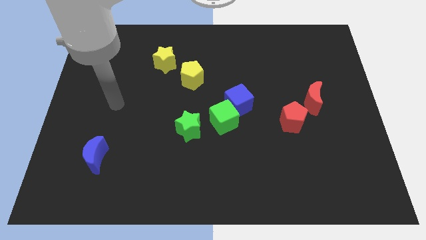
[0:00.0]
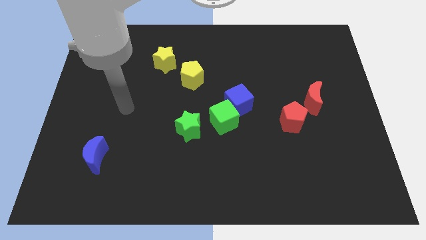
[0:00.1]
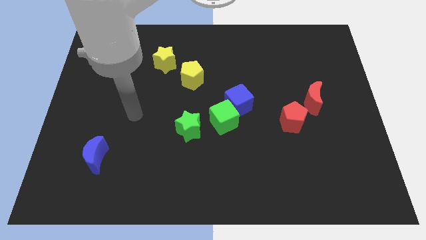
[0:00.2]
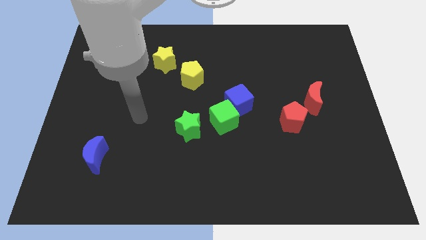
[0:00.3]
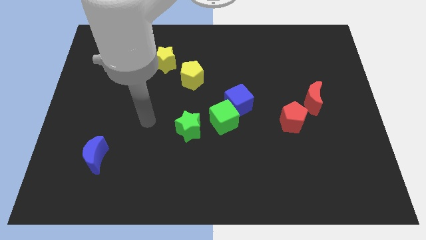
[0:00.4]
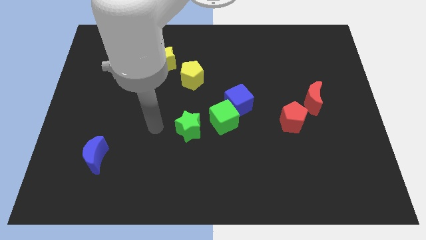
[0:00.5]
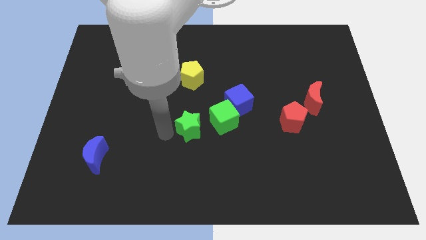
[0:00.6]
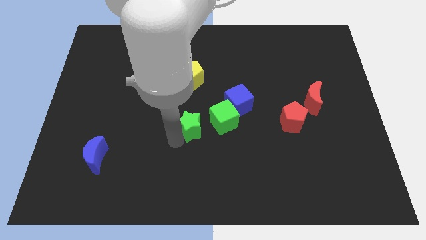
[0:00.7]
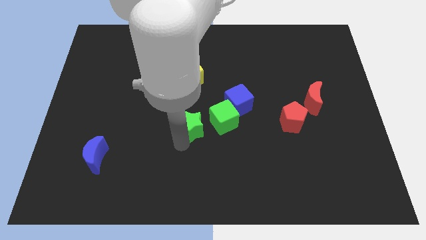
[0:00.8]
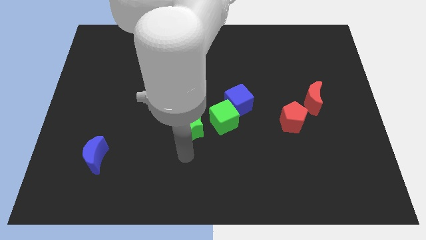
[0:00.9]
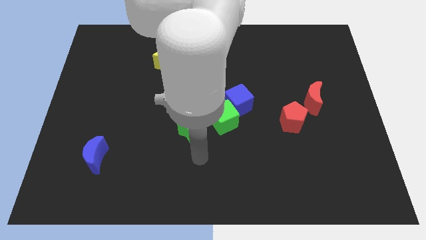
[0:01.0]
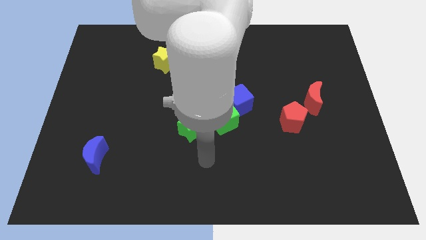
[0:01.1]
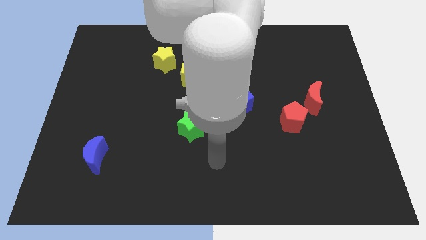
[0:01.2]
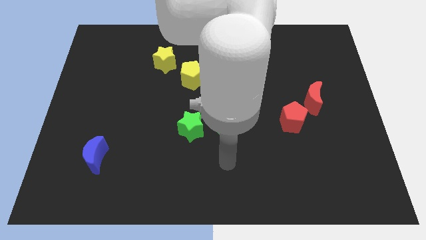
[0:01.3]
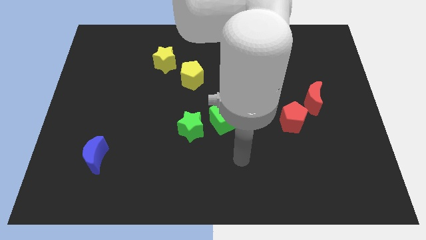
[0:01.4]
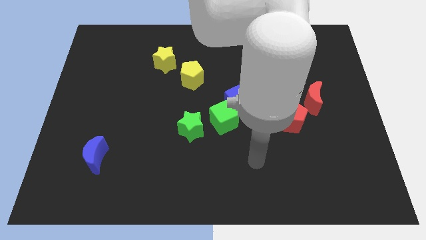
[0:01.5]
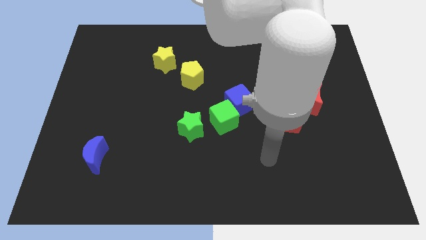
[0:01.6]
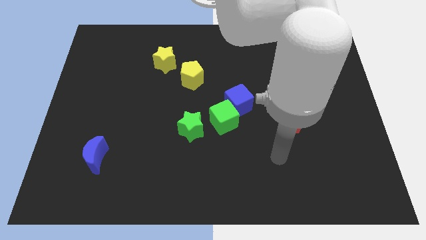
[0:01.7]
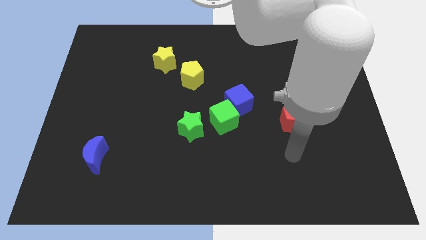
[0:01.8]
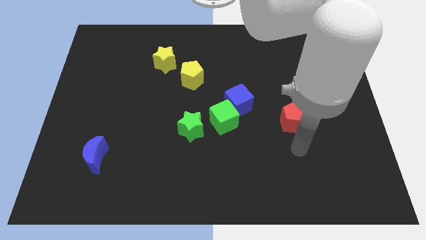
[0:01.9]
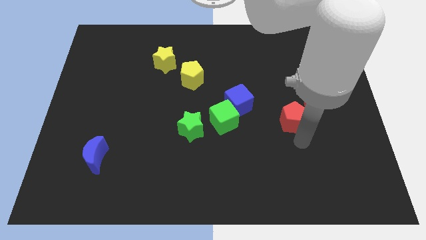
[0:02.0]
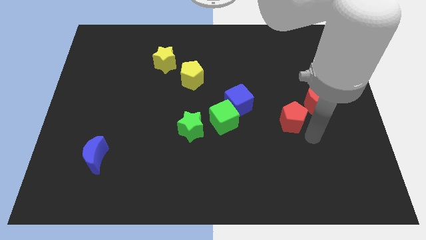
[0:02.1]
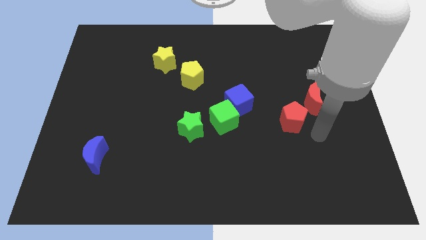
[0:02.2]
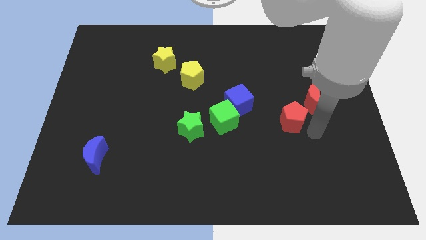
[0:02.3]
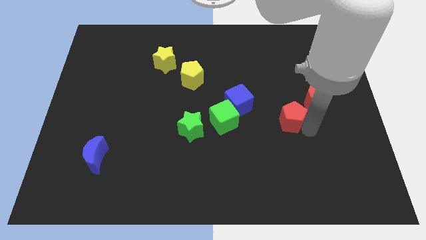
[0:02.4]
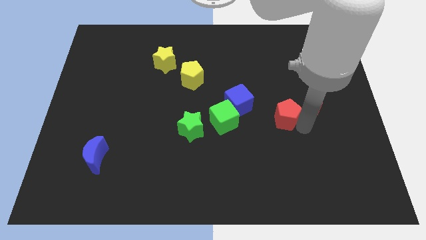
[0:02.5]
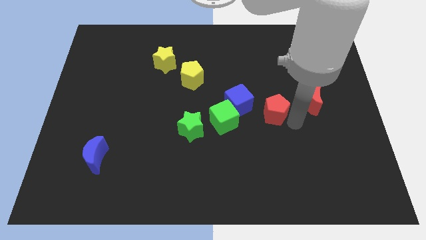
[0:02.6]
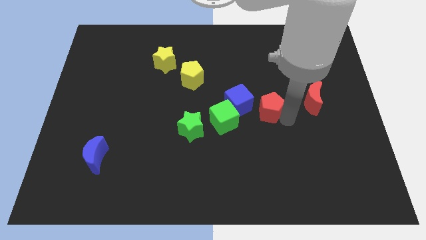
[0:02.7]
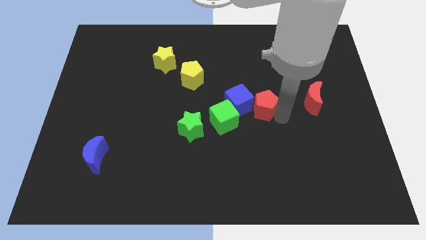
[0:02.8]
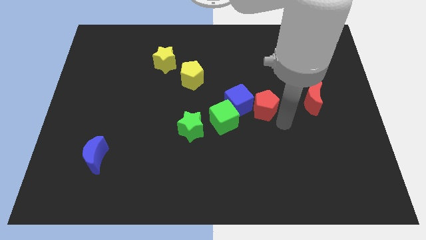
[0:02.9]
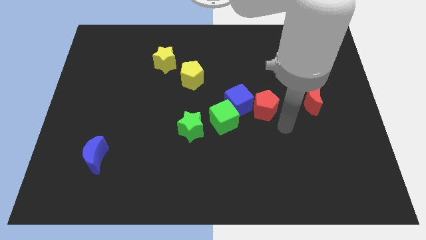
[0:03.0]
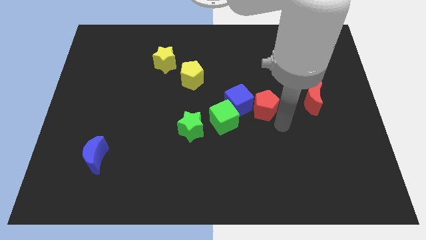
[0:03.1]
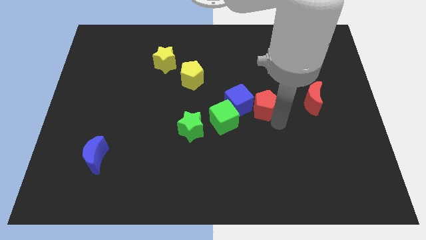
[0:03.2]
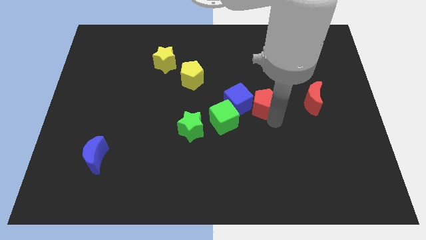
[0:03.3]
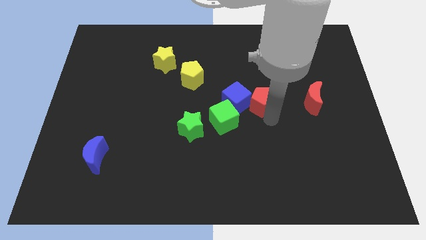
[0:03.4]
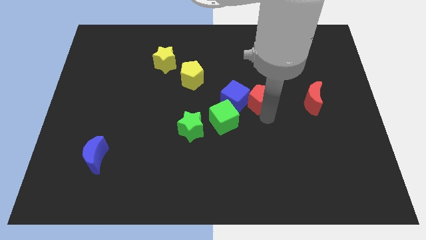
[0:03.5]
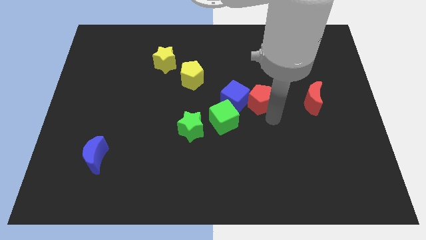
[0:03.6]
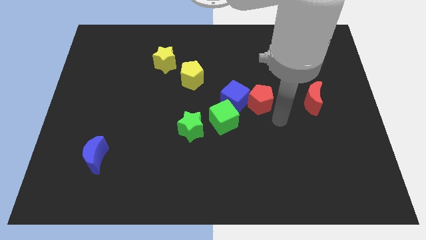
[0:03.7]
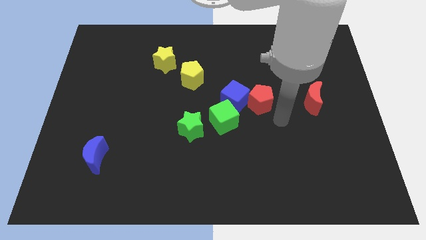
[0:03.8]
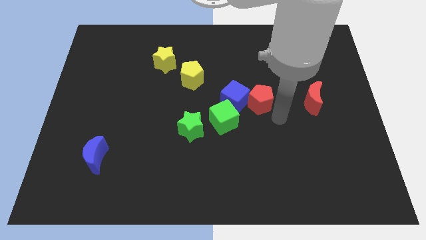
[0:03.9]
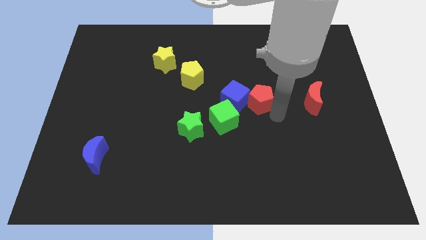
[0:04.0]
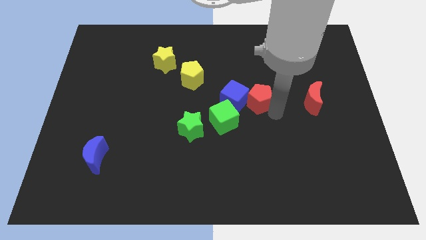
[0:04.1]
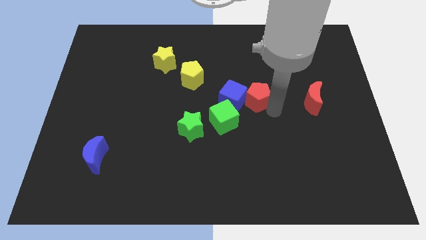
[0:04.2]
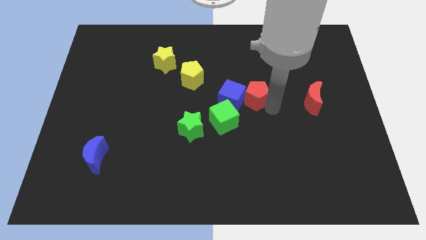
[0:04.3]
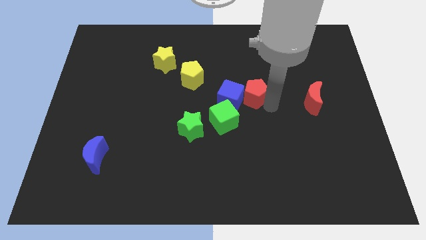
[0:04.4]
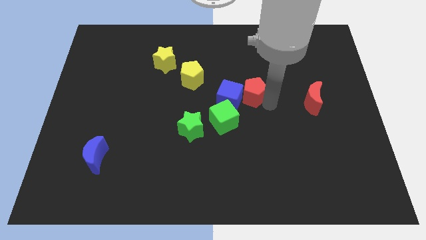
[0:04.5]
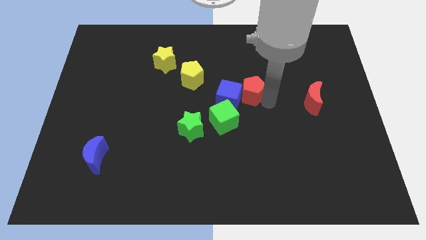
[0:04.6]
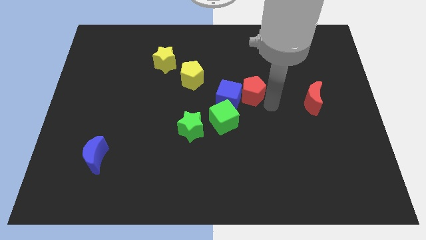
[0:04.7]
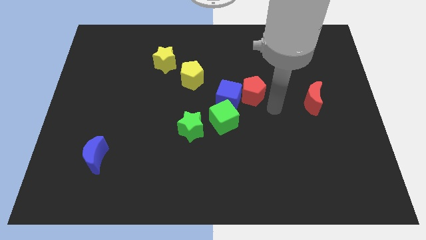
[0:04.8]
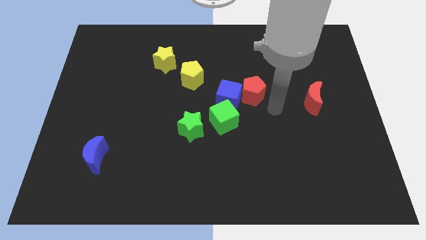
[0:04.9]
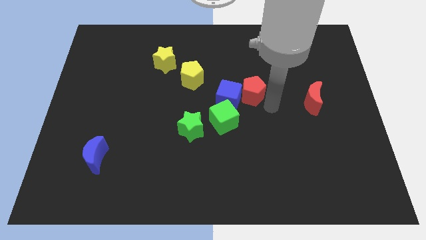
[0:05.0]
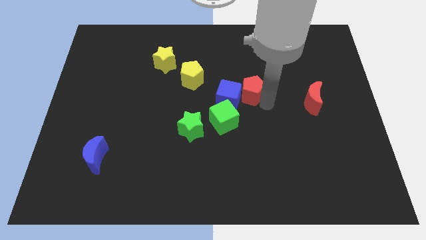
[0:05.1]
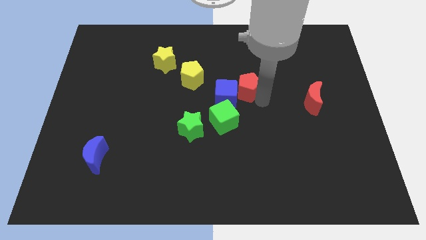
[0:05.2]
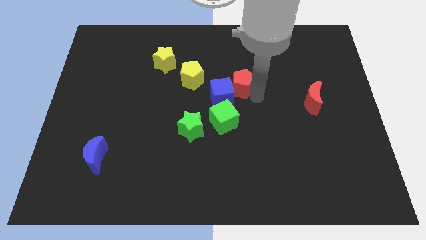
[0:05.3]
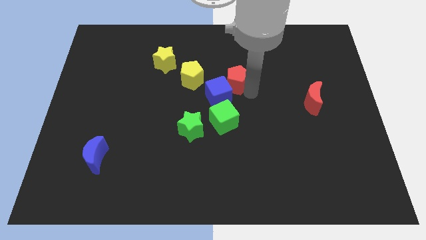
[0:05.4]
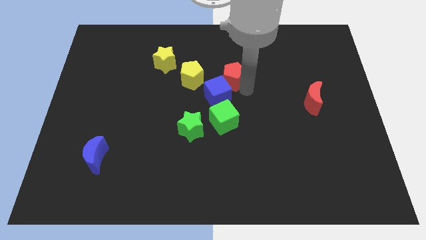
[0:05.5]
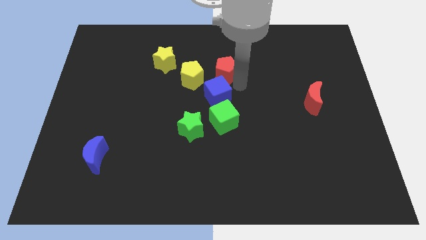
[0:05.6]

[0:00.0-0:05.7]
put the red pentagon diagonally up and to the right of the yellow pentagon

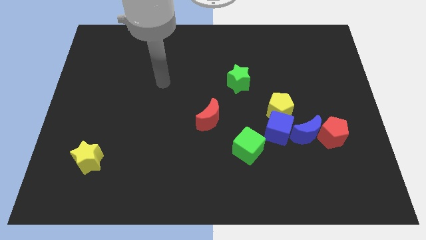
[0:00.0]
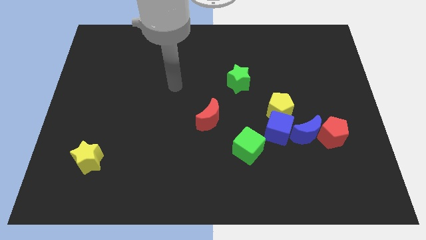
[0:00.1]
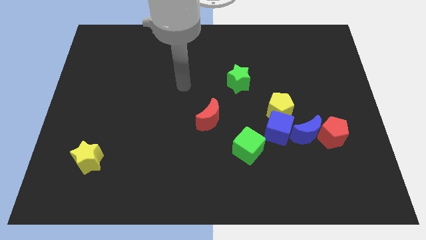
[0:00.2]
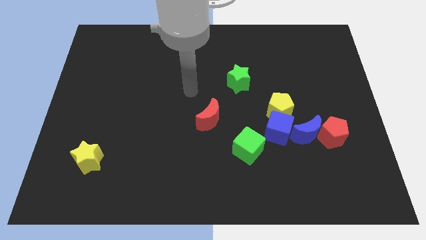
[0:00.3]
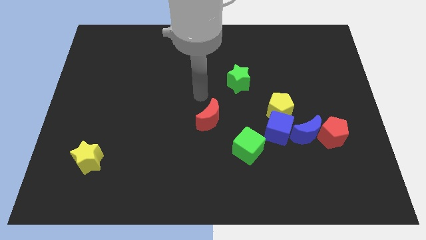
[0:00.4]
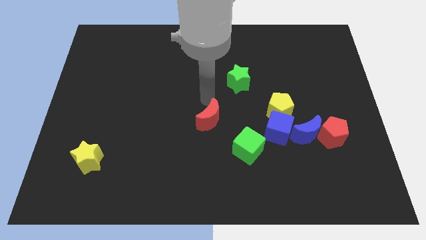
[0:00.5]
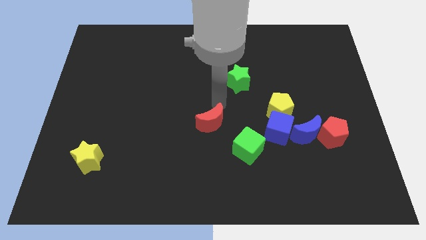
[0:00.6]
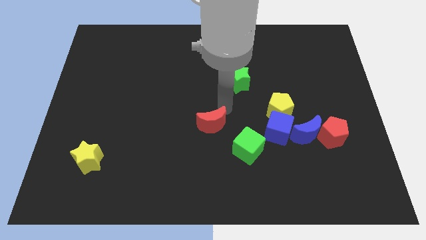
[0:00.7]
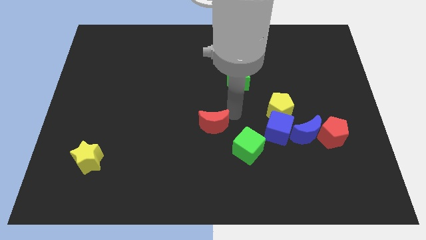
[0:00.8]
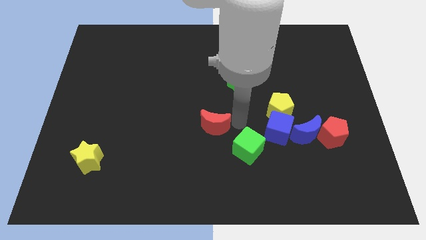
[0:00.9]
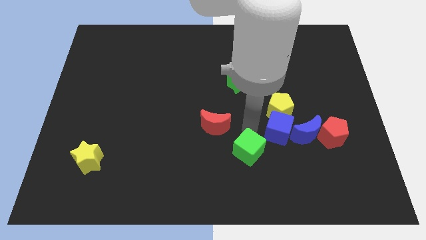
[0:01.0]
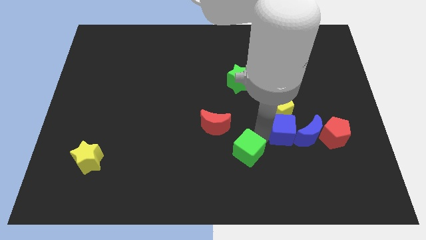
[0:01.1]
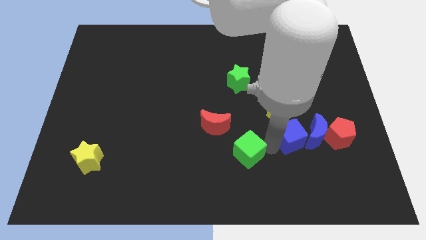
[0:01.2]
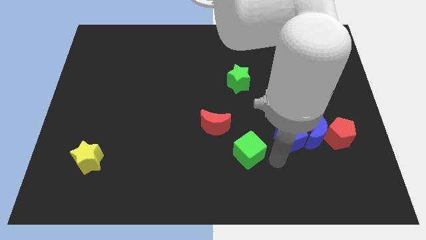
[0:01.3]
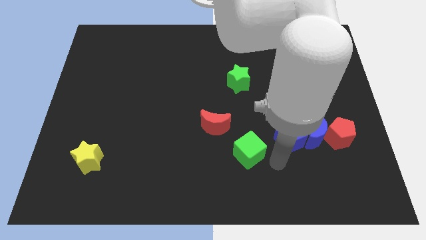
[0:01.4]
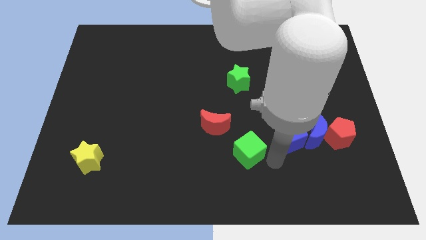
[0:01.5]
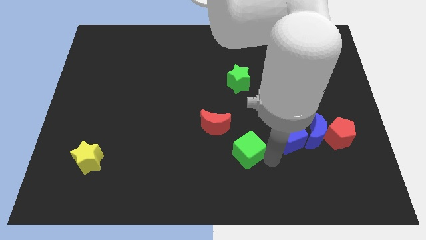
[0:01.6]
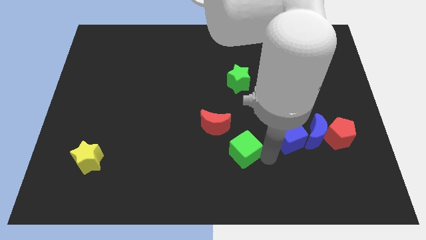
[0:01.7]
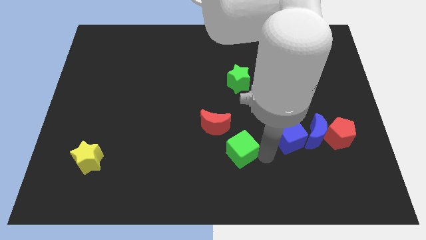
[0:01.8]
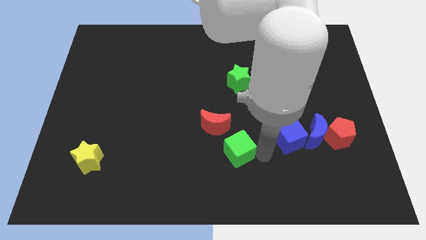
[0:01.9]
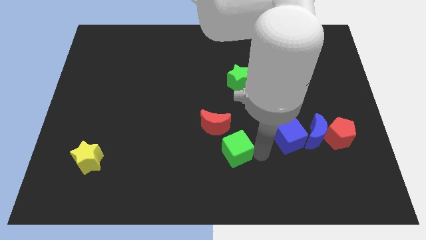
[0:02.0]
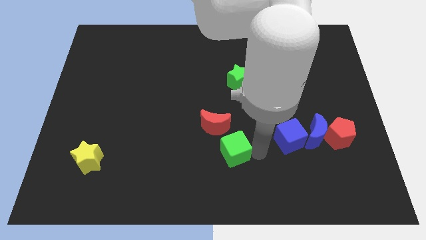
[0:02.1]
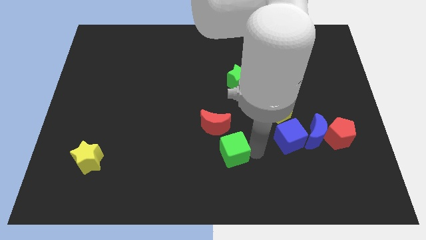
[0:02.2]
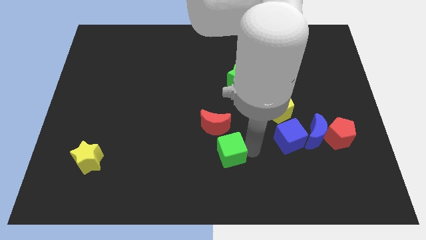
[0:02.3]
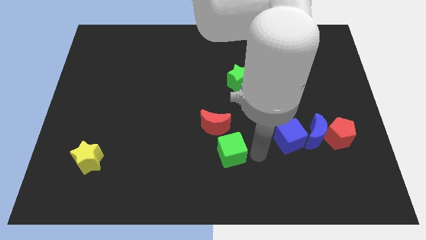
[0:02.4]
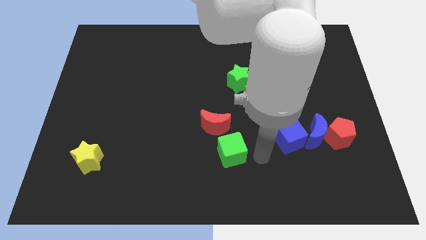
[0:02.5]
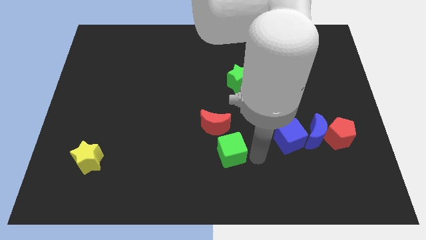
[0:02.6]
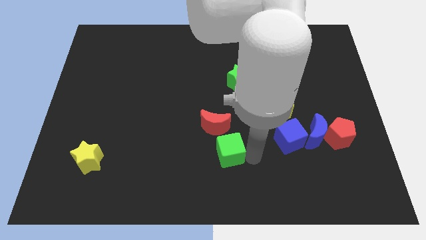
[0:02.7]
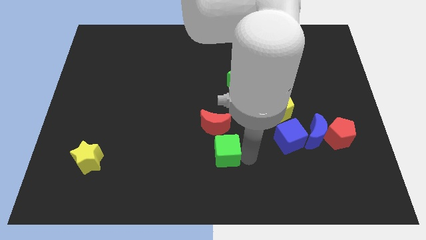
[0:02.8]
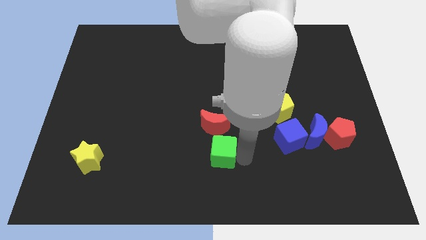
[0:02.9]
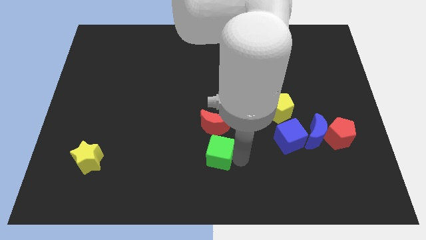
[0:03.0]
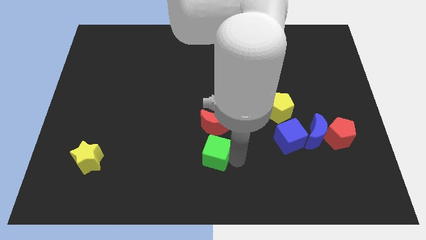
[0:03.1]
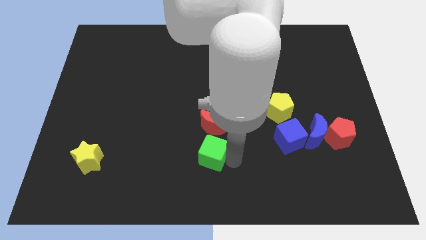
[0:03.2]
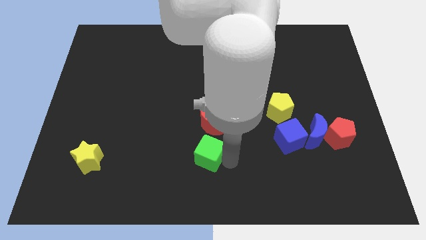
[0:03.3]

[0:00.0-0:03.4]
slide the green cube to the bottom left of the red moon
